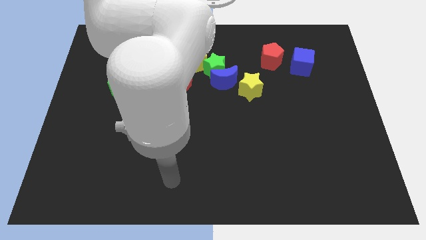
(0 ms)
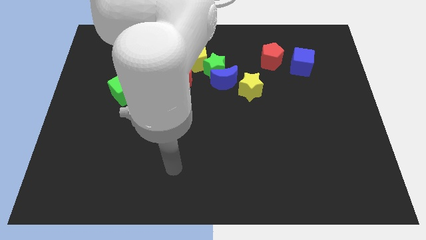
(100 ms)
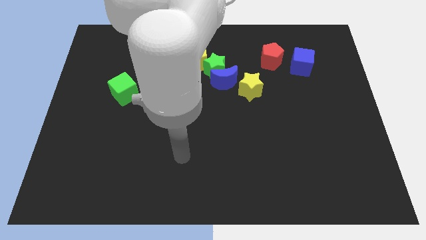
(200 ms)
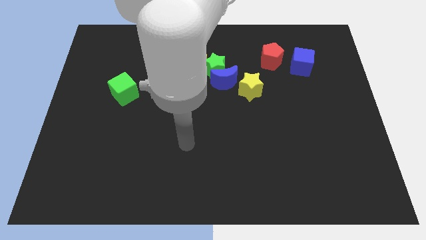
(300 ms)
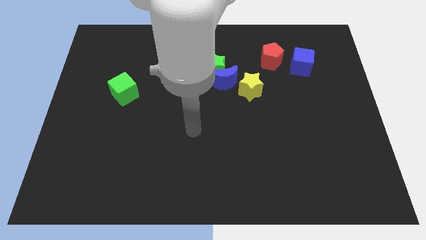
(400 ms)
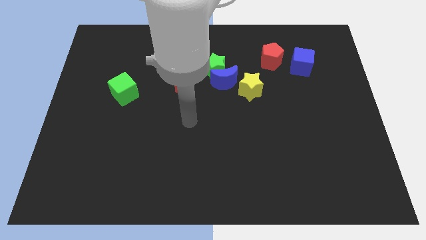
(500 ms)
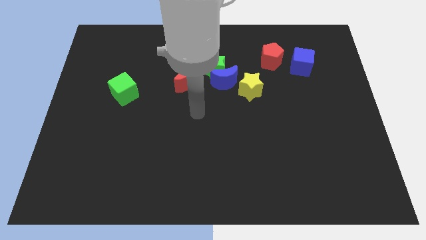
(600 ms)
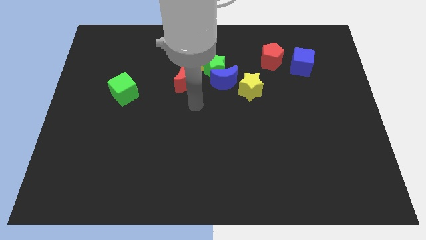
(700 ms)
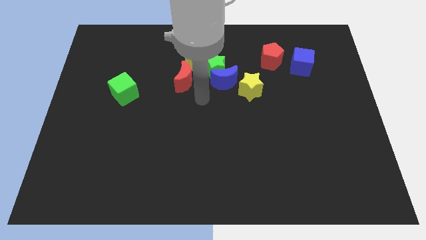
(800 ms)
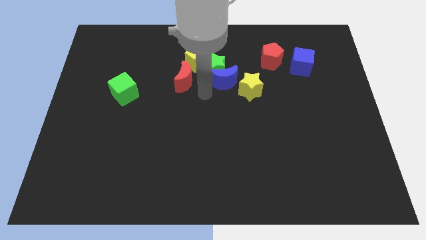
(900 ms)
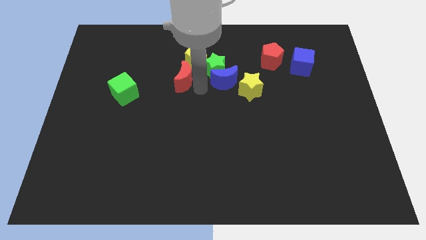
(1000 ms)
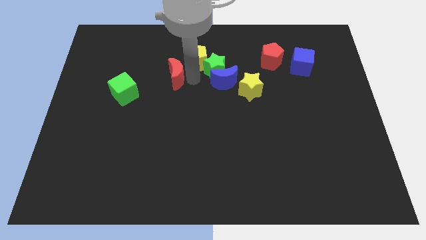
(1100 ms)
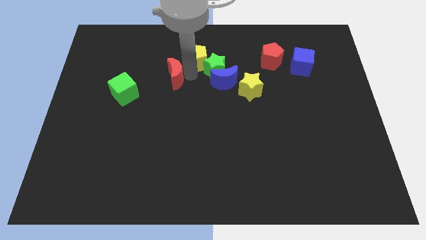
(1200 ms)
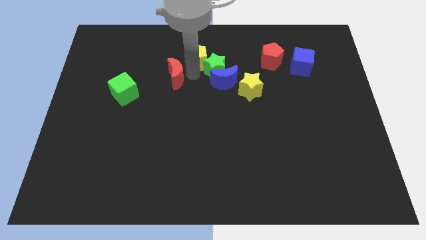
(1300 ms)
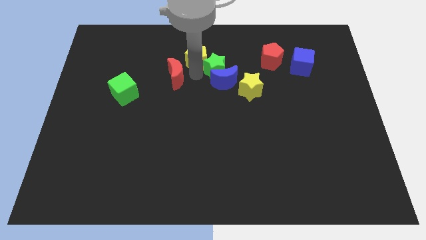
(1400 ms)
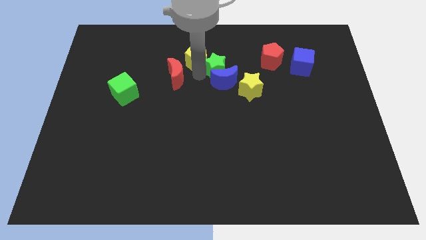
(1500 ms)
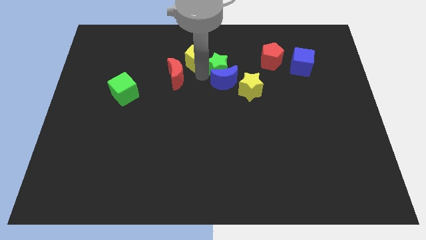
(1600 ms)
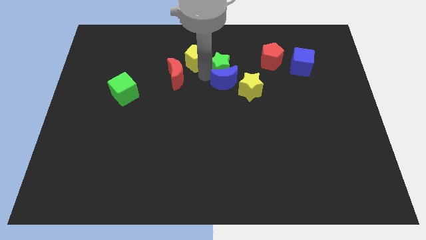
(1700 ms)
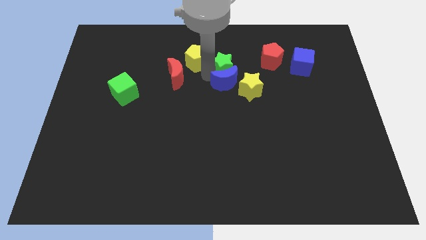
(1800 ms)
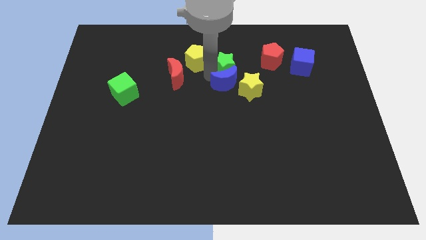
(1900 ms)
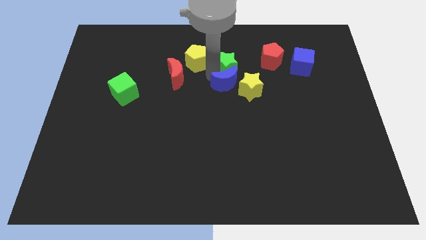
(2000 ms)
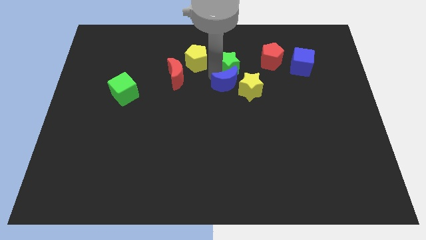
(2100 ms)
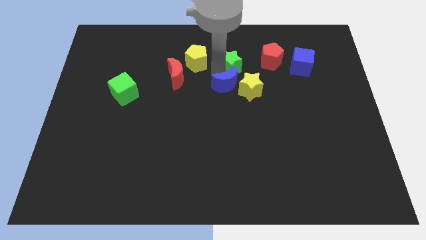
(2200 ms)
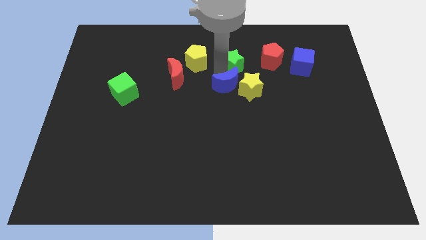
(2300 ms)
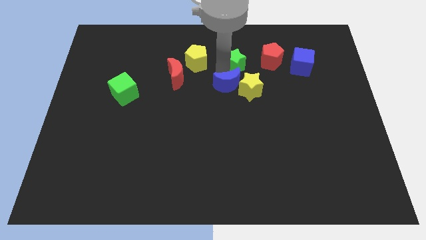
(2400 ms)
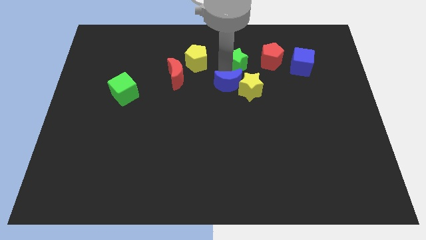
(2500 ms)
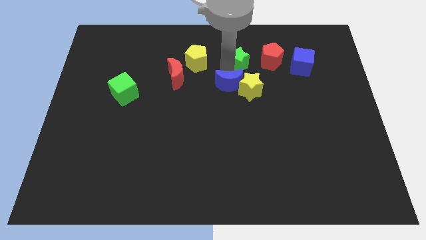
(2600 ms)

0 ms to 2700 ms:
separate the green star from the group of blocks

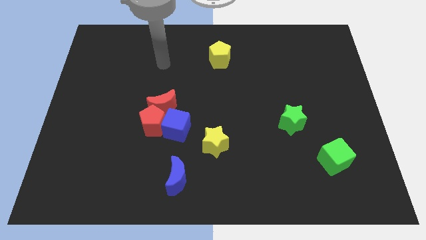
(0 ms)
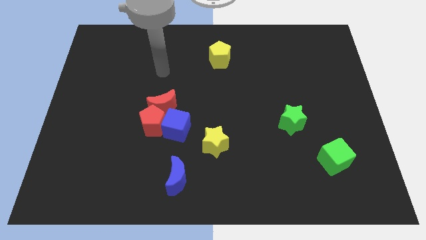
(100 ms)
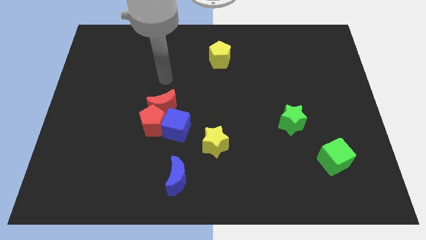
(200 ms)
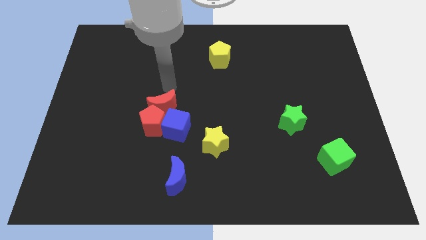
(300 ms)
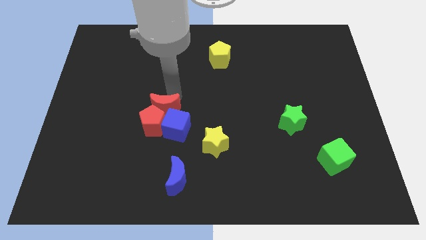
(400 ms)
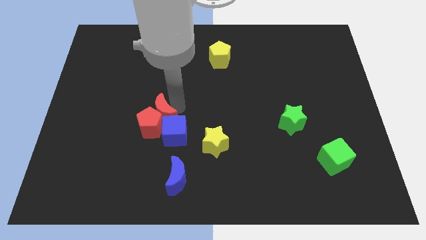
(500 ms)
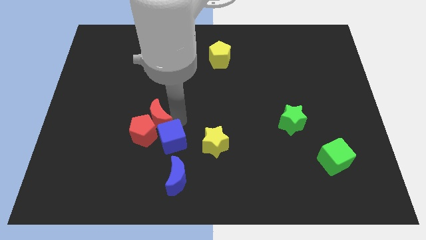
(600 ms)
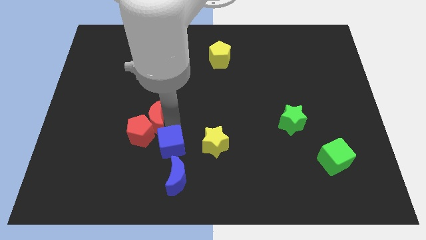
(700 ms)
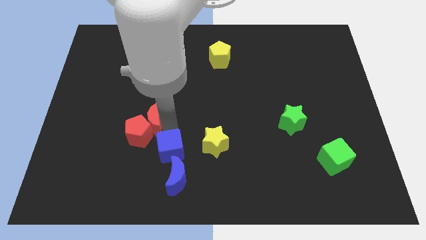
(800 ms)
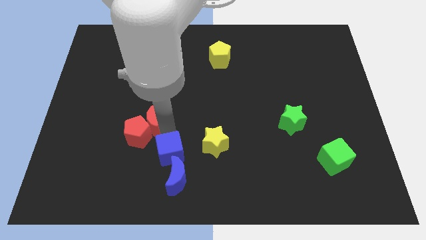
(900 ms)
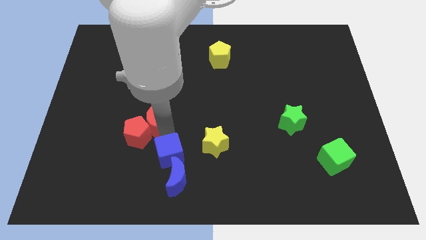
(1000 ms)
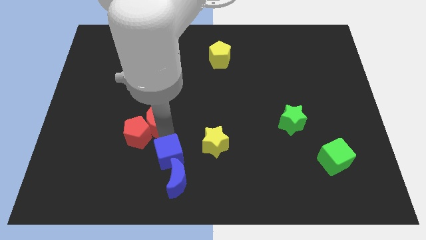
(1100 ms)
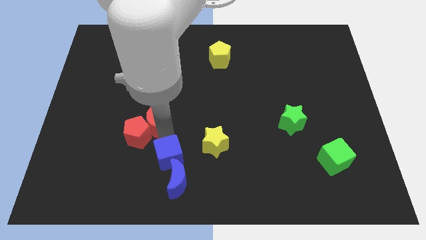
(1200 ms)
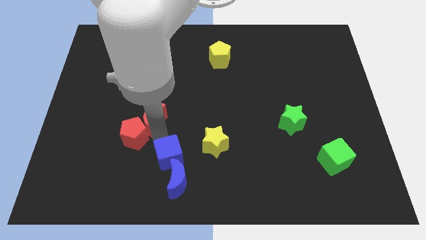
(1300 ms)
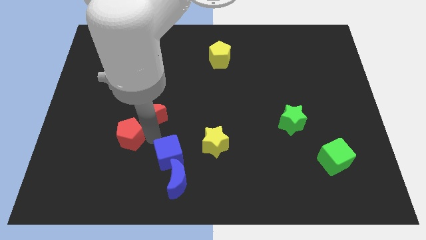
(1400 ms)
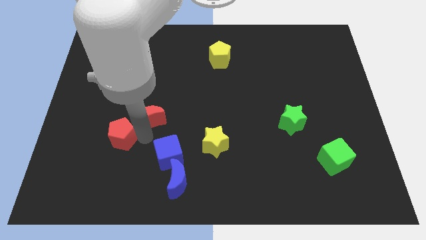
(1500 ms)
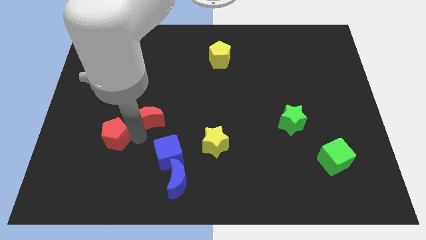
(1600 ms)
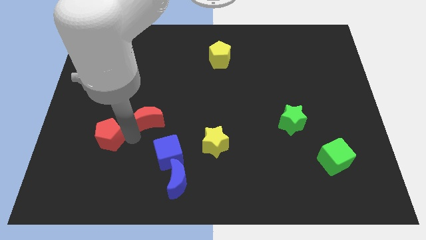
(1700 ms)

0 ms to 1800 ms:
pull the red pentagon apart from the red moon and blue cube

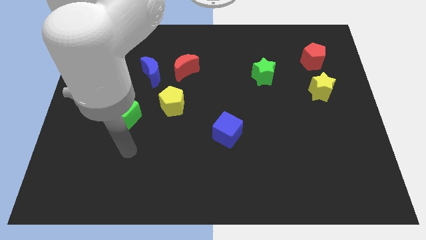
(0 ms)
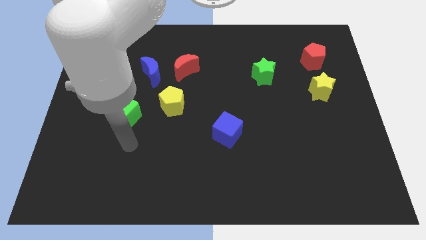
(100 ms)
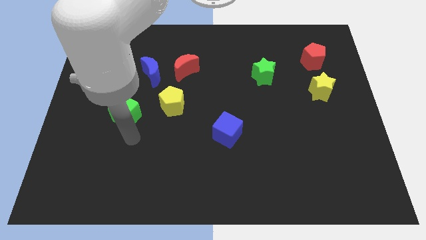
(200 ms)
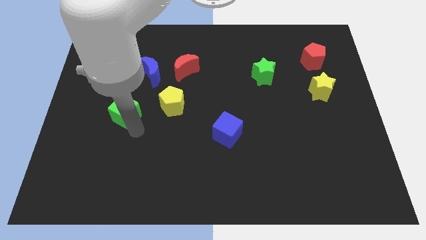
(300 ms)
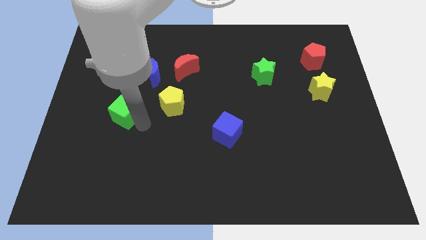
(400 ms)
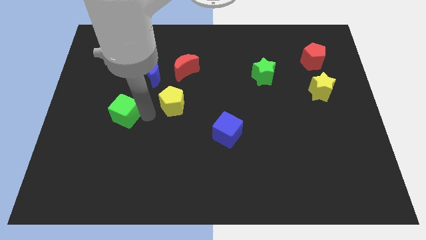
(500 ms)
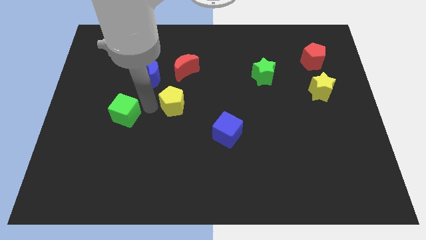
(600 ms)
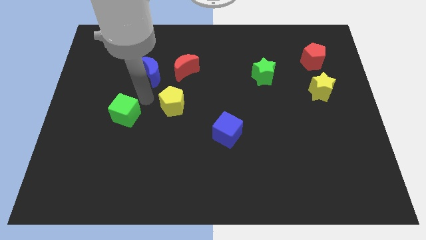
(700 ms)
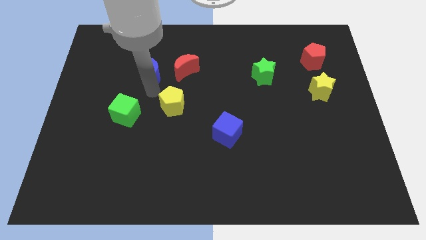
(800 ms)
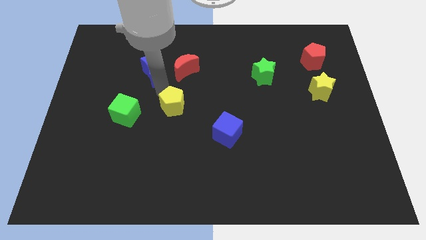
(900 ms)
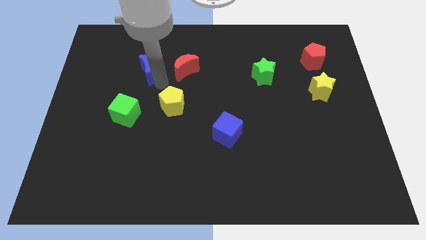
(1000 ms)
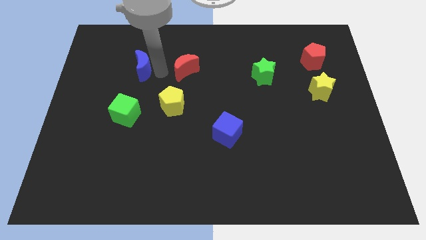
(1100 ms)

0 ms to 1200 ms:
pull the red moon apart from the blue moon

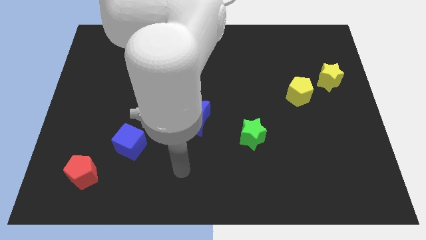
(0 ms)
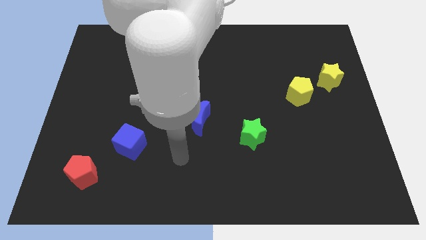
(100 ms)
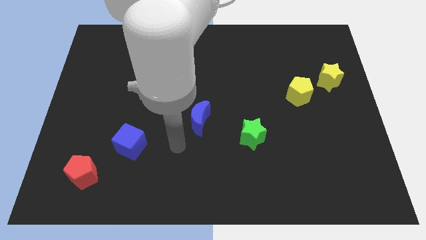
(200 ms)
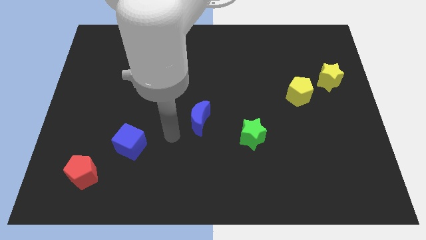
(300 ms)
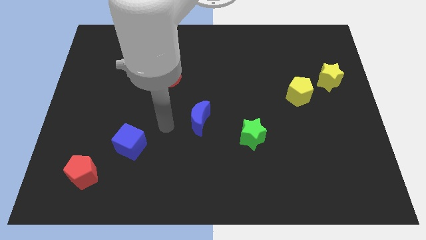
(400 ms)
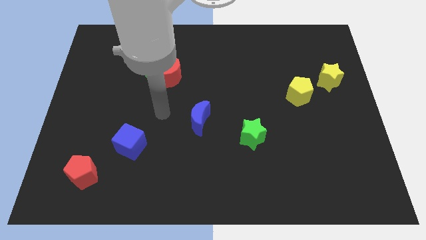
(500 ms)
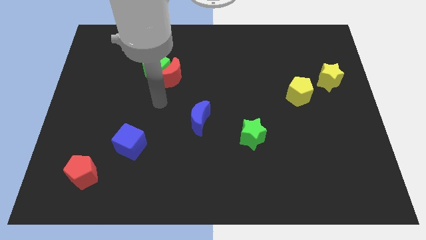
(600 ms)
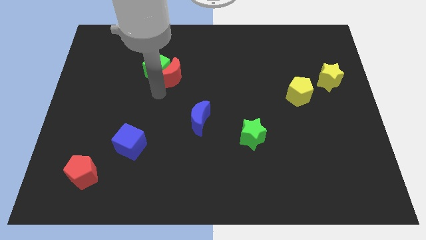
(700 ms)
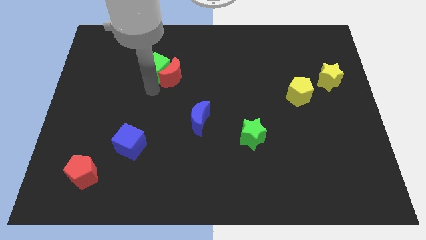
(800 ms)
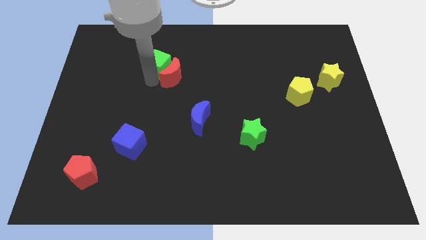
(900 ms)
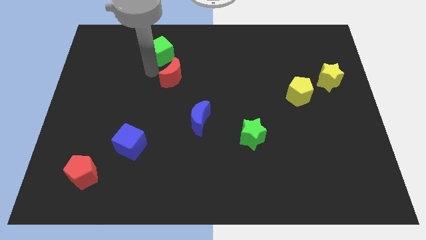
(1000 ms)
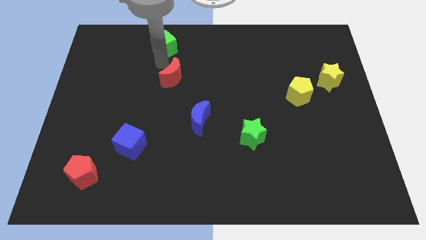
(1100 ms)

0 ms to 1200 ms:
pull the red moon apart from the green cube

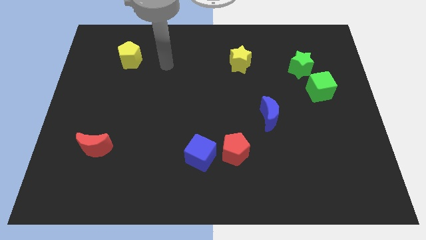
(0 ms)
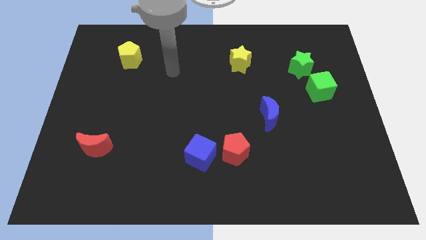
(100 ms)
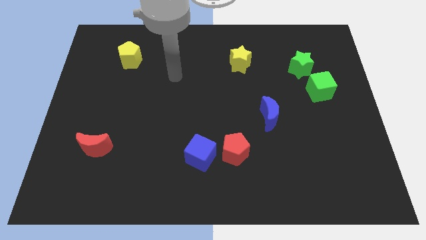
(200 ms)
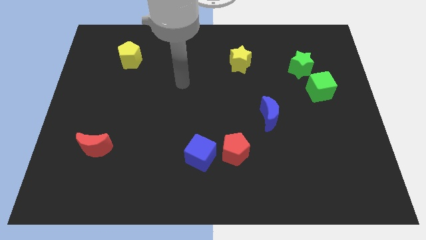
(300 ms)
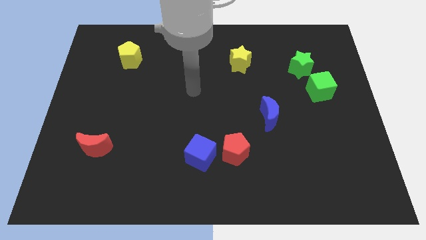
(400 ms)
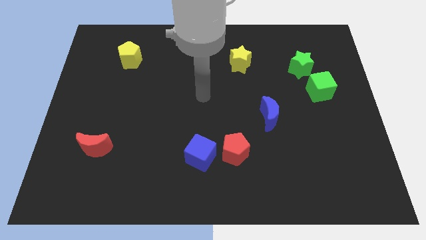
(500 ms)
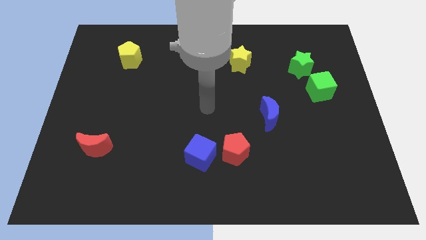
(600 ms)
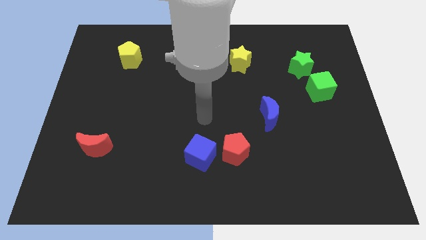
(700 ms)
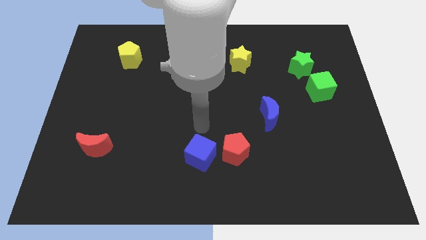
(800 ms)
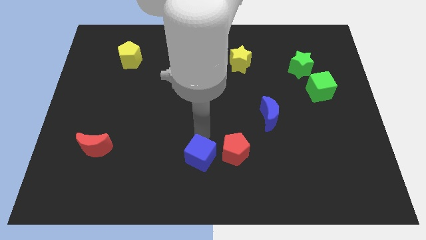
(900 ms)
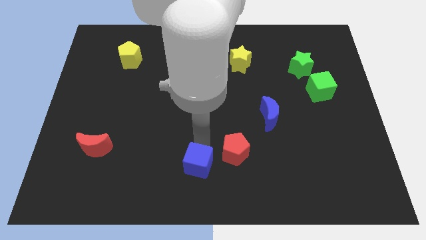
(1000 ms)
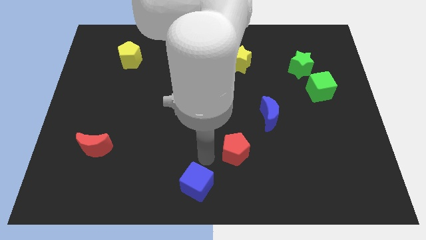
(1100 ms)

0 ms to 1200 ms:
move the red pentagon away from the blue cube

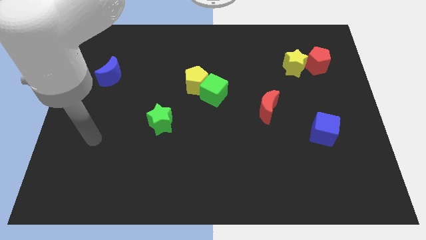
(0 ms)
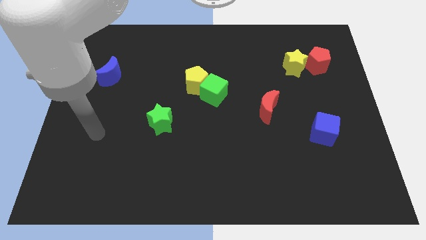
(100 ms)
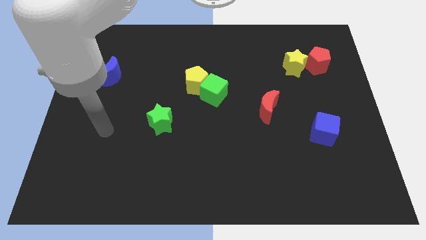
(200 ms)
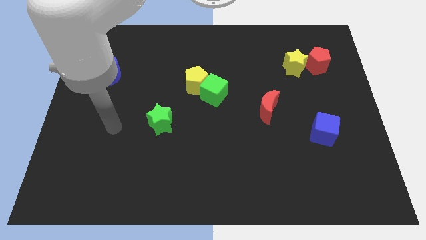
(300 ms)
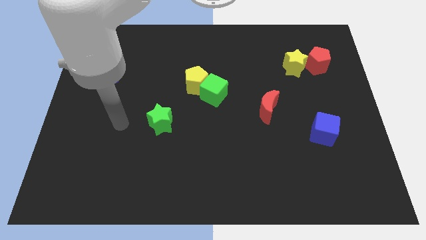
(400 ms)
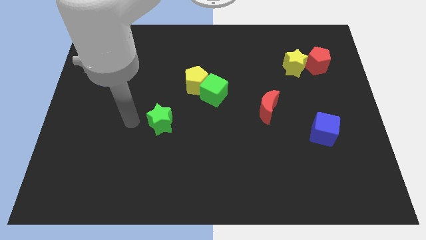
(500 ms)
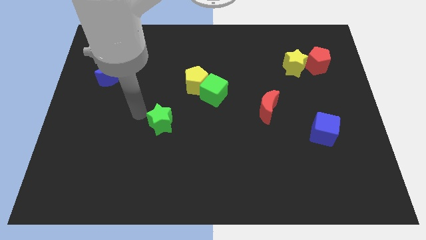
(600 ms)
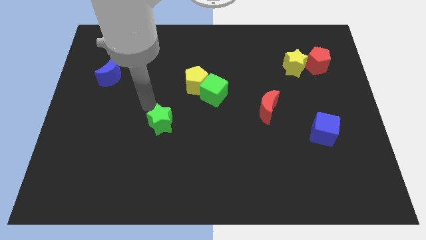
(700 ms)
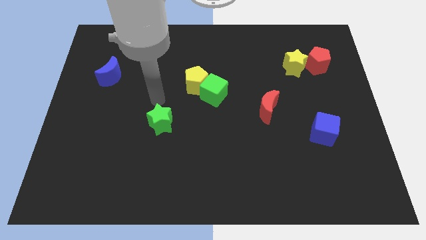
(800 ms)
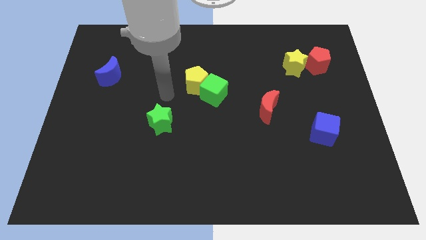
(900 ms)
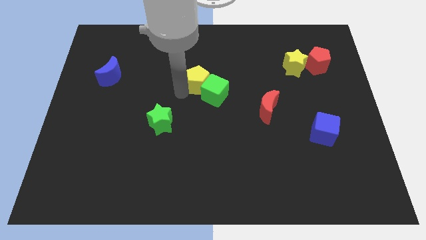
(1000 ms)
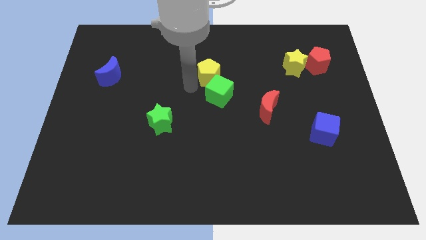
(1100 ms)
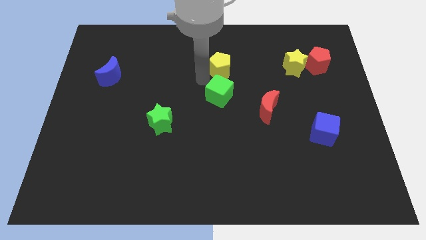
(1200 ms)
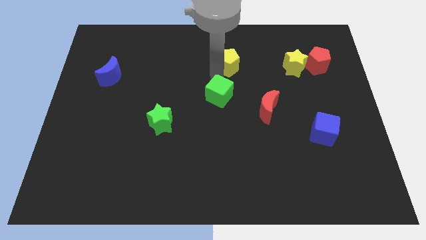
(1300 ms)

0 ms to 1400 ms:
pull the green cube apart from the yellow pentagon
